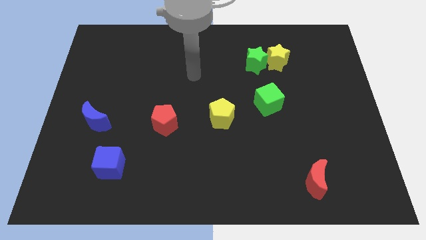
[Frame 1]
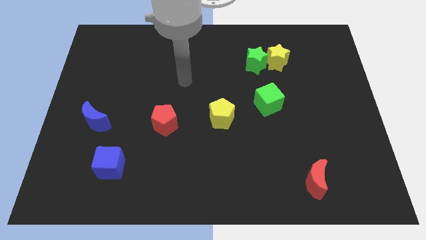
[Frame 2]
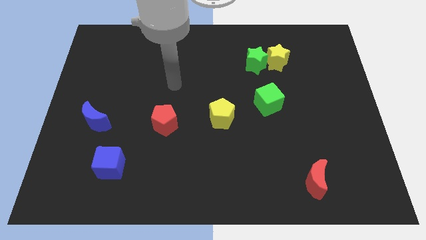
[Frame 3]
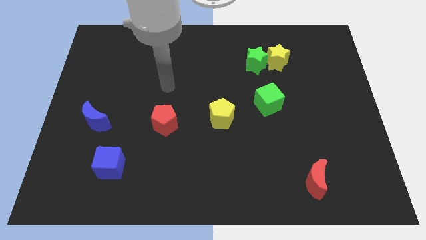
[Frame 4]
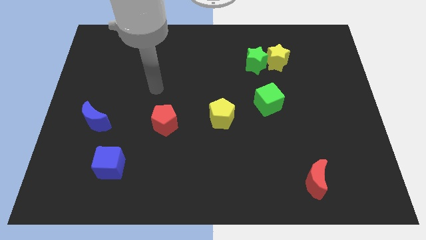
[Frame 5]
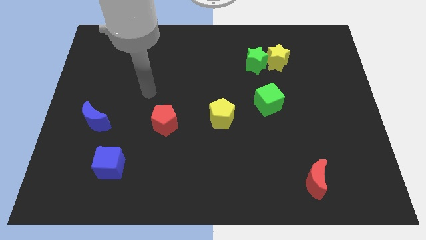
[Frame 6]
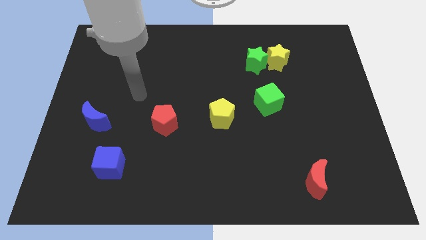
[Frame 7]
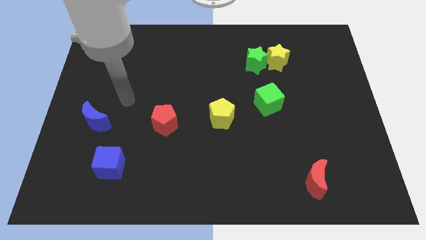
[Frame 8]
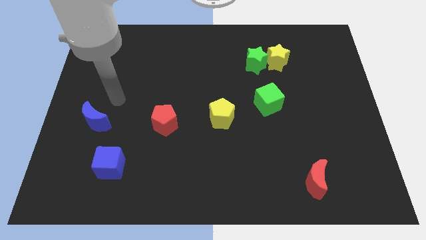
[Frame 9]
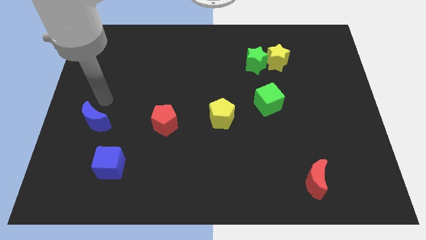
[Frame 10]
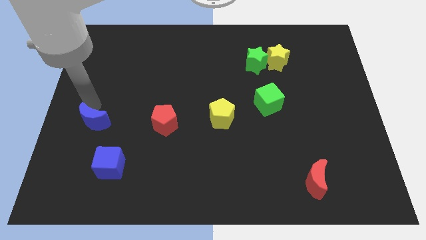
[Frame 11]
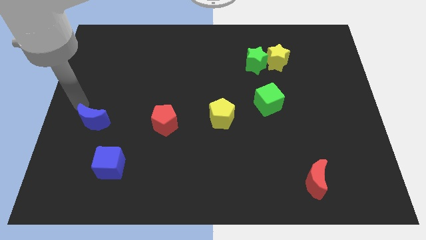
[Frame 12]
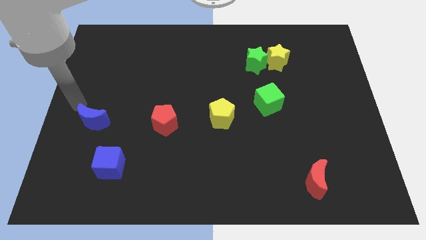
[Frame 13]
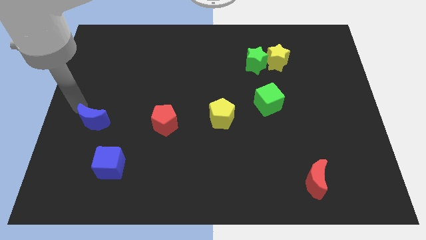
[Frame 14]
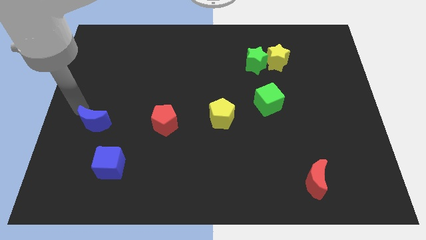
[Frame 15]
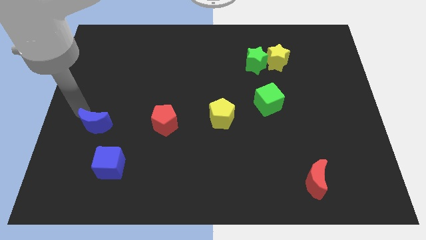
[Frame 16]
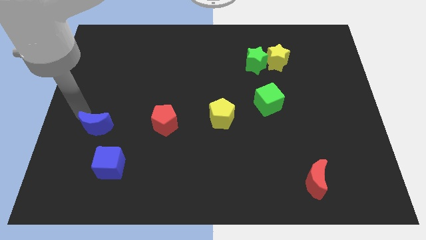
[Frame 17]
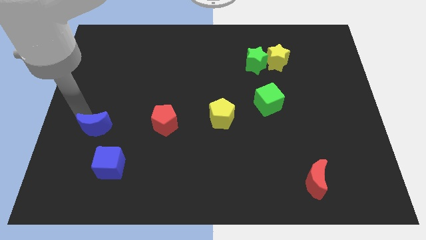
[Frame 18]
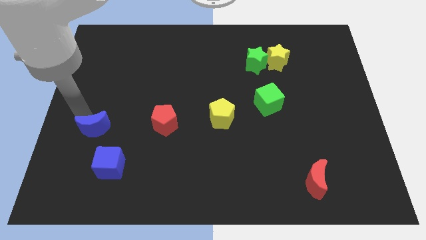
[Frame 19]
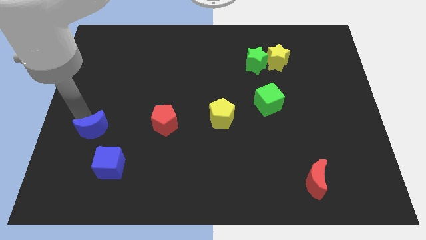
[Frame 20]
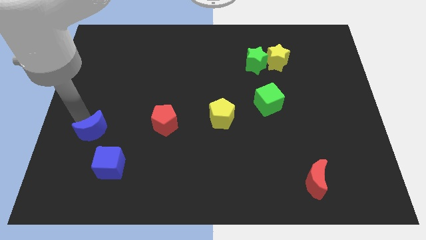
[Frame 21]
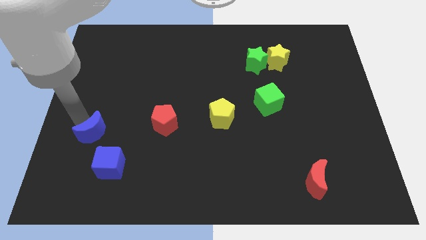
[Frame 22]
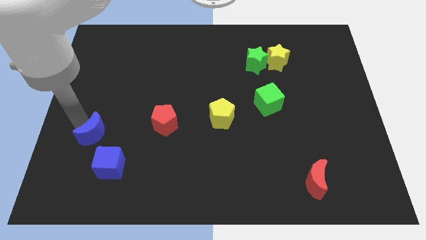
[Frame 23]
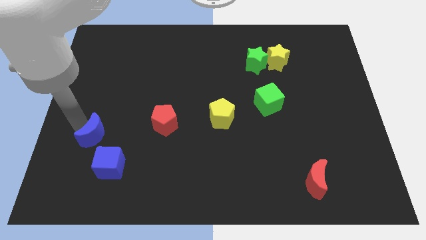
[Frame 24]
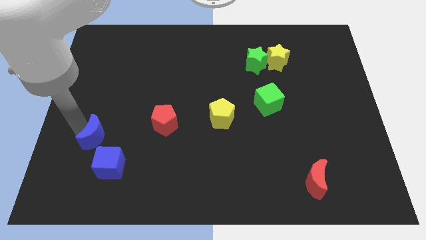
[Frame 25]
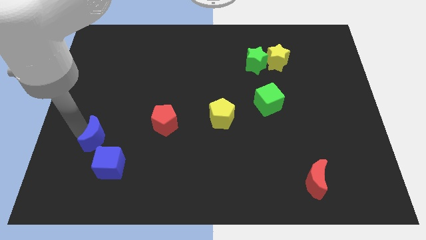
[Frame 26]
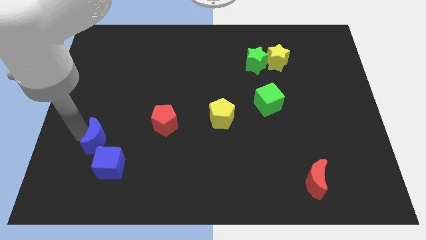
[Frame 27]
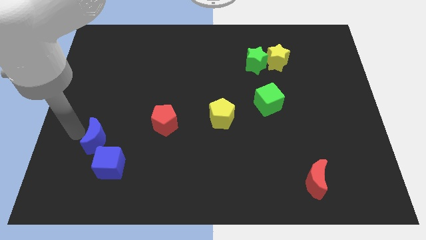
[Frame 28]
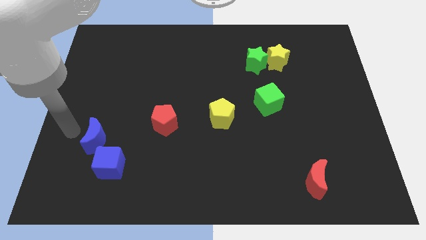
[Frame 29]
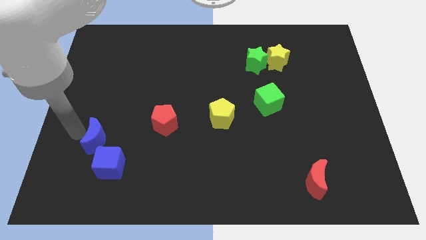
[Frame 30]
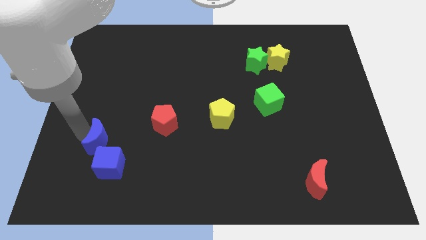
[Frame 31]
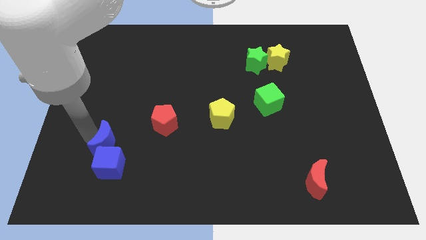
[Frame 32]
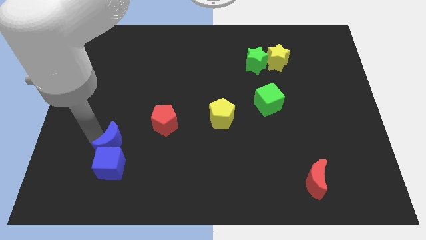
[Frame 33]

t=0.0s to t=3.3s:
move the blue moon a little bit diagonally down and to the right

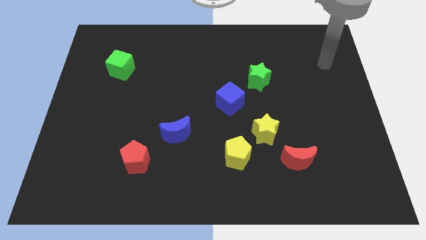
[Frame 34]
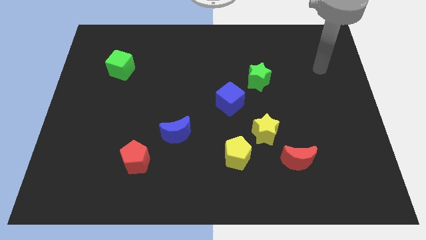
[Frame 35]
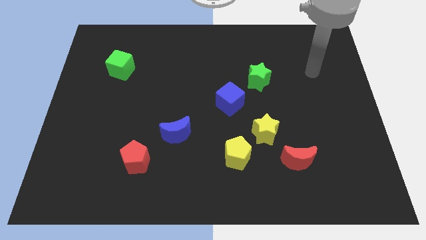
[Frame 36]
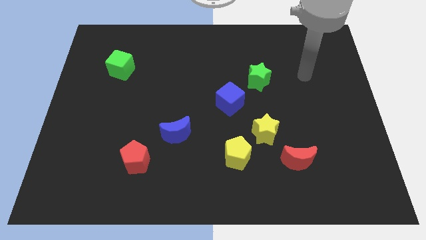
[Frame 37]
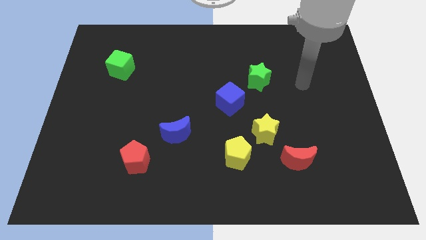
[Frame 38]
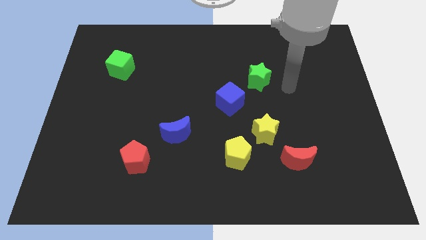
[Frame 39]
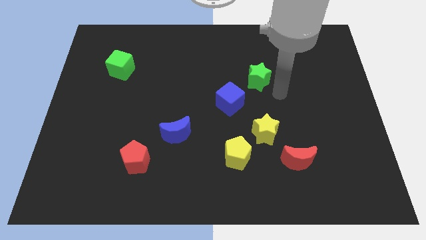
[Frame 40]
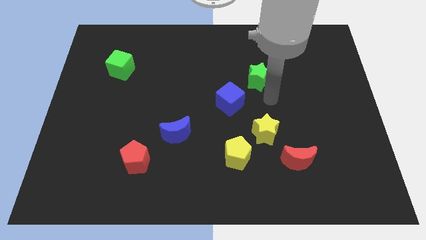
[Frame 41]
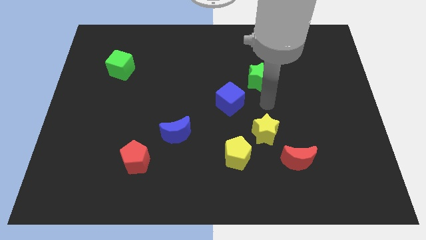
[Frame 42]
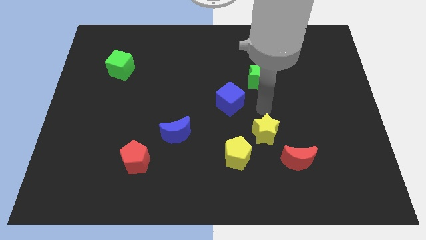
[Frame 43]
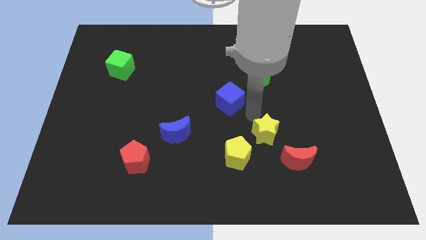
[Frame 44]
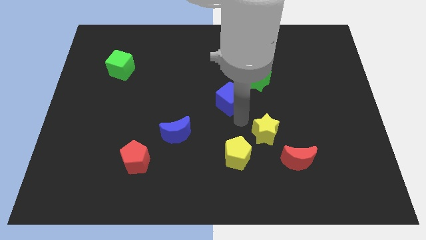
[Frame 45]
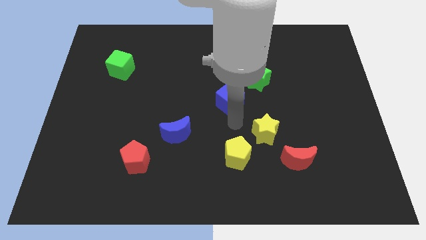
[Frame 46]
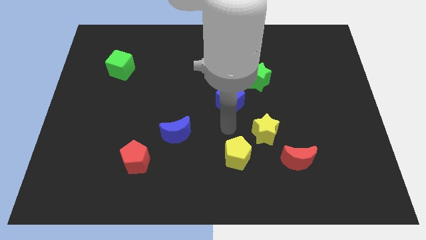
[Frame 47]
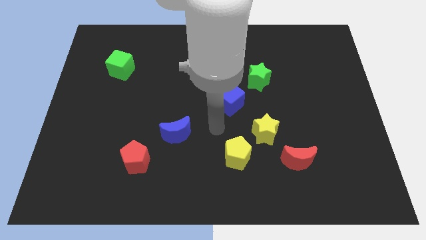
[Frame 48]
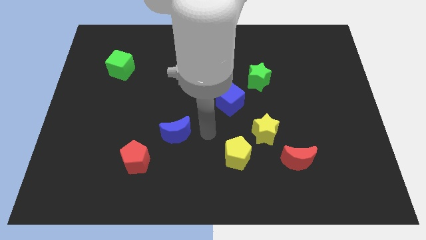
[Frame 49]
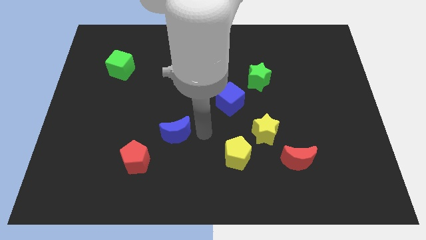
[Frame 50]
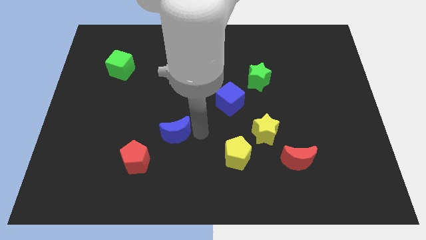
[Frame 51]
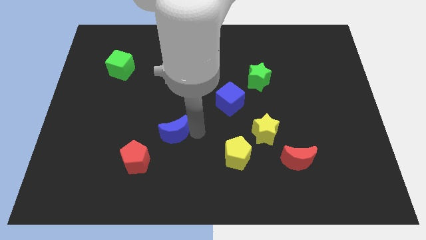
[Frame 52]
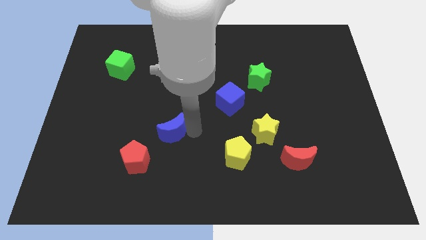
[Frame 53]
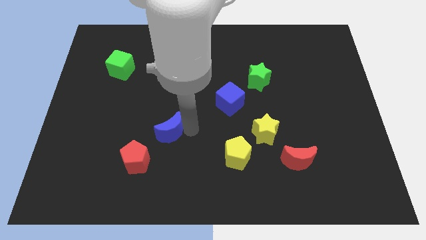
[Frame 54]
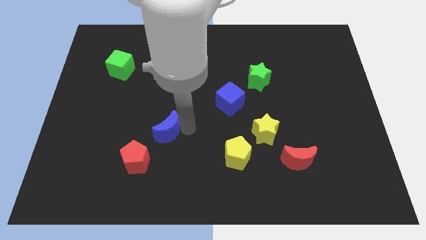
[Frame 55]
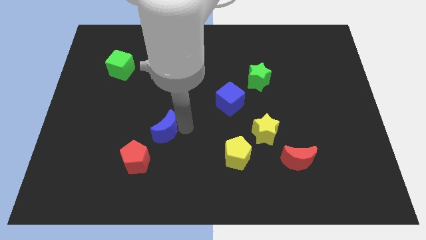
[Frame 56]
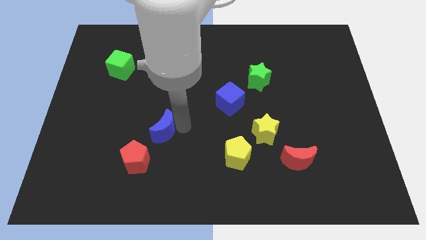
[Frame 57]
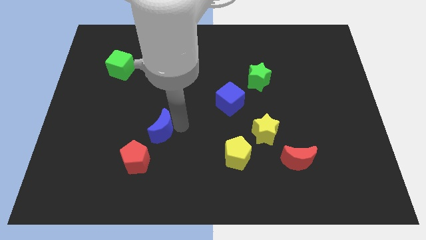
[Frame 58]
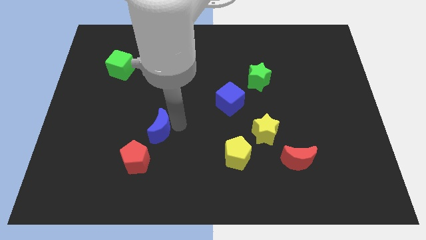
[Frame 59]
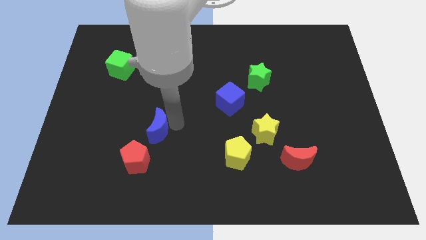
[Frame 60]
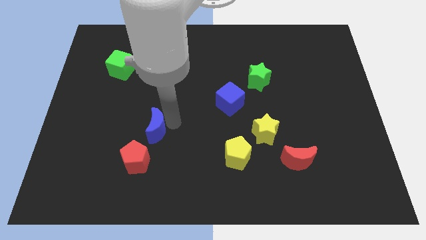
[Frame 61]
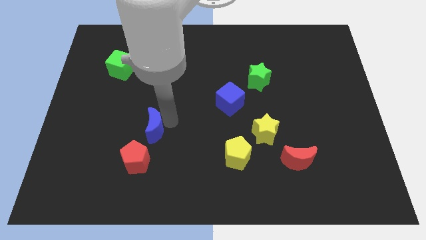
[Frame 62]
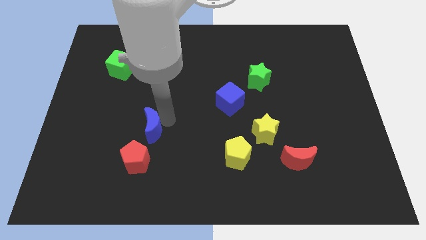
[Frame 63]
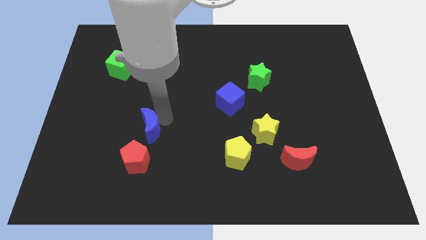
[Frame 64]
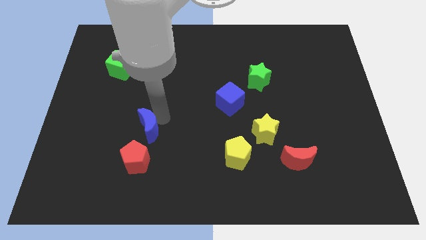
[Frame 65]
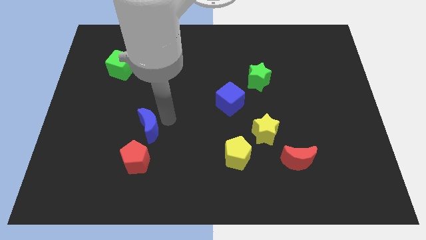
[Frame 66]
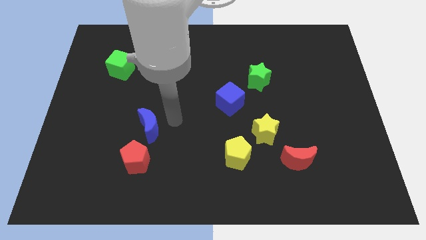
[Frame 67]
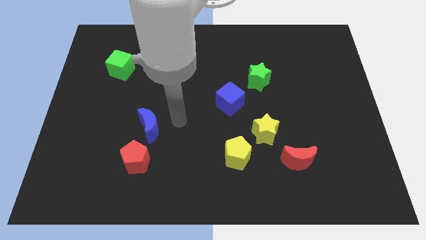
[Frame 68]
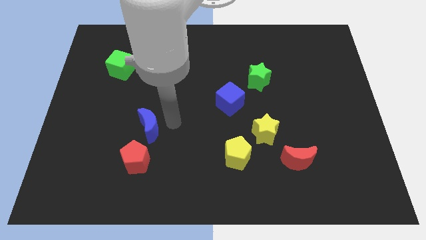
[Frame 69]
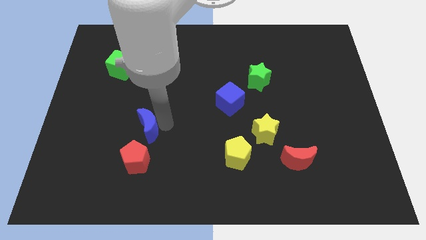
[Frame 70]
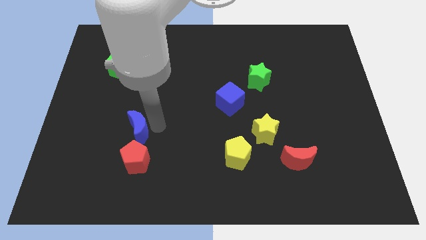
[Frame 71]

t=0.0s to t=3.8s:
slightly slide the blue moon left

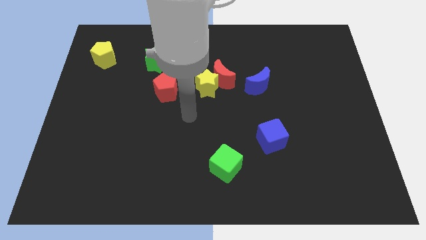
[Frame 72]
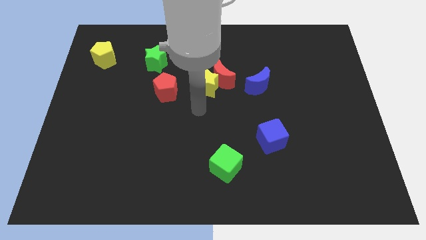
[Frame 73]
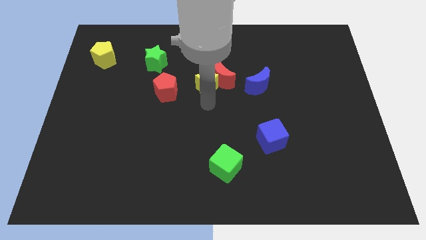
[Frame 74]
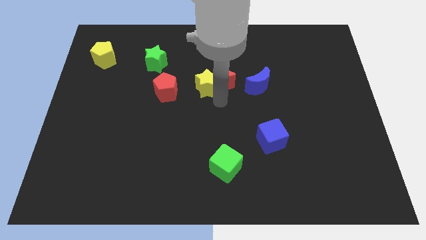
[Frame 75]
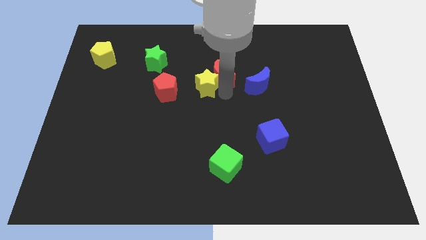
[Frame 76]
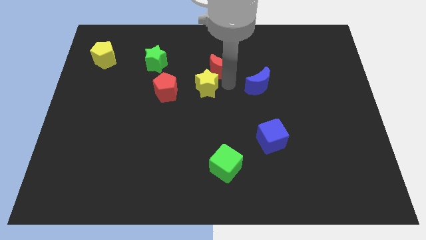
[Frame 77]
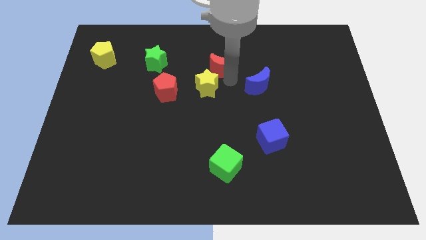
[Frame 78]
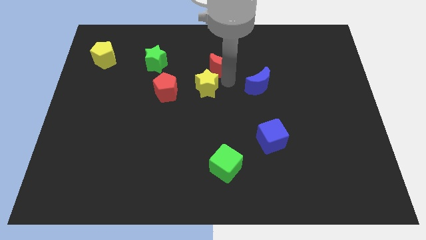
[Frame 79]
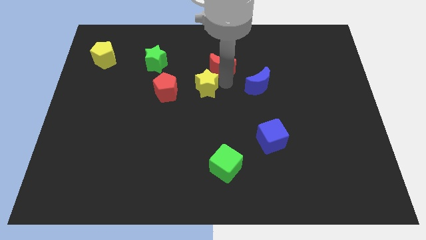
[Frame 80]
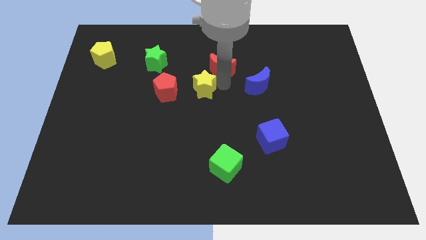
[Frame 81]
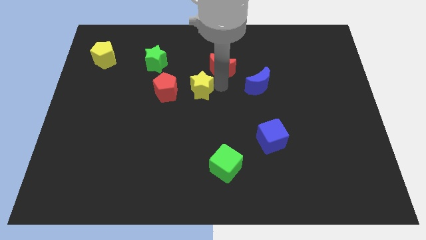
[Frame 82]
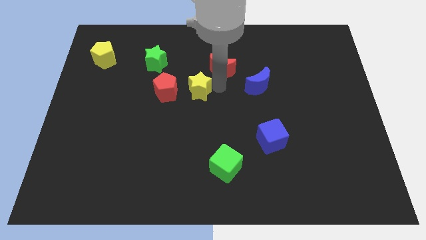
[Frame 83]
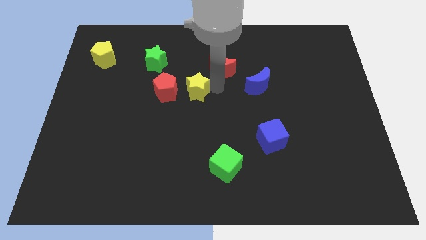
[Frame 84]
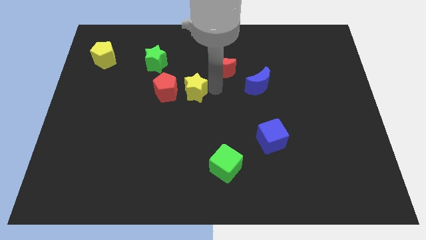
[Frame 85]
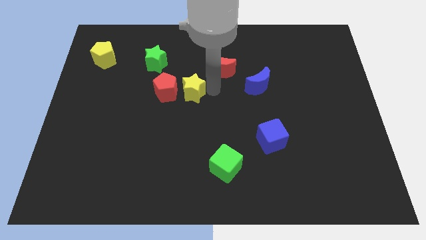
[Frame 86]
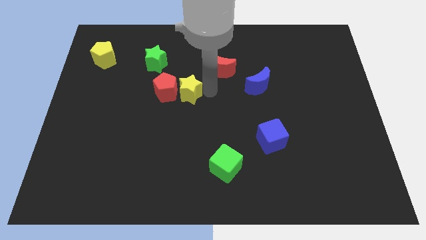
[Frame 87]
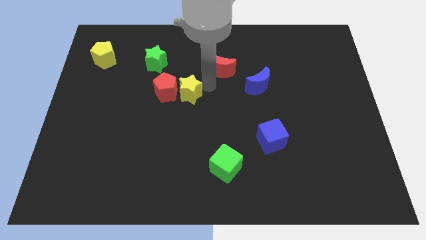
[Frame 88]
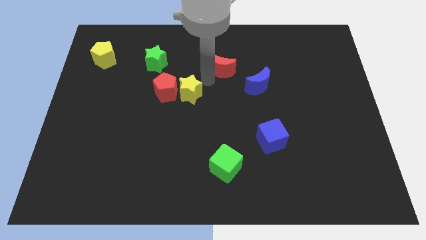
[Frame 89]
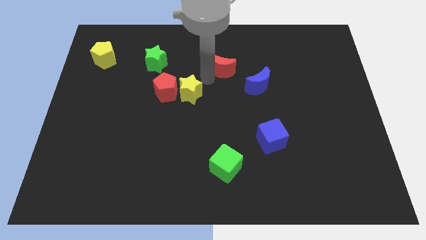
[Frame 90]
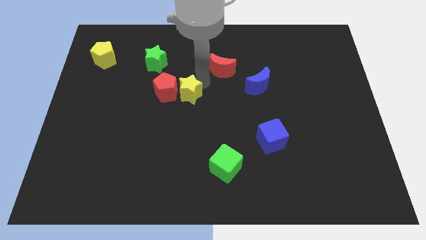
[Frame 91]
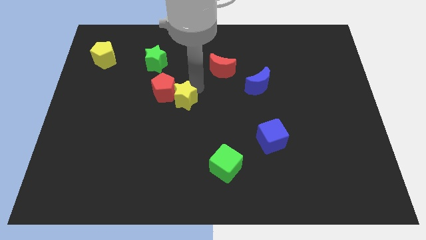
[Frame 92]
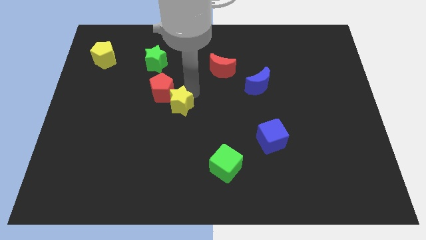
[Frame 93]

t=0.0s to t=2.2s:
push the yellow star down and then to the left a bit
